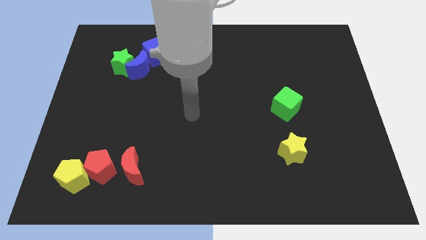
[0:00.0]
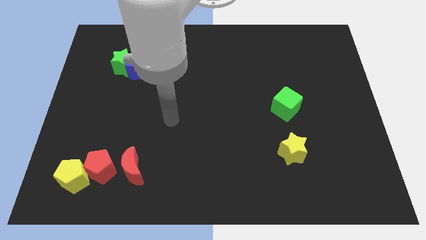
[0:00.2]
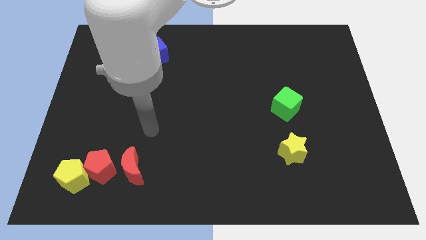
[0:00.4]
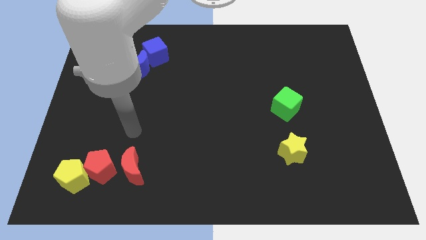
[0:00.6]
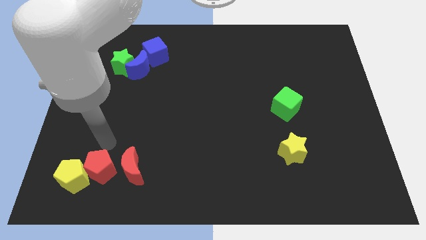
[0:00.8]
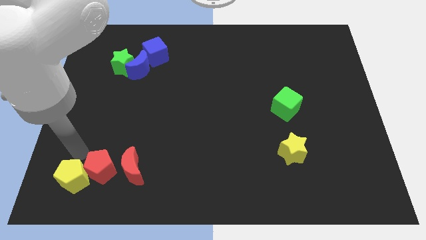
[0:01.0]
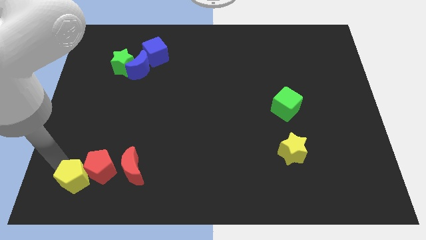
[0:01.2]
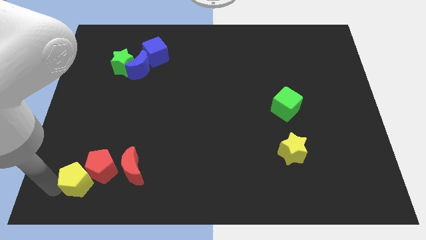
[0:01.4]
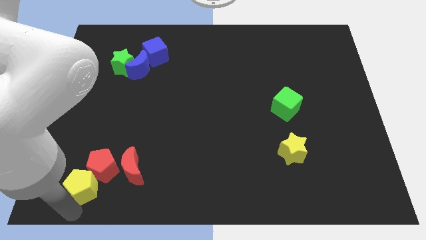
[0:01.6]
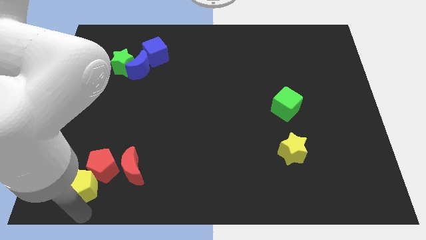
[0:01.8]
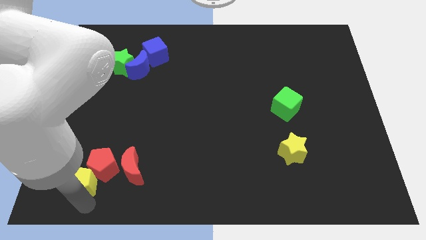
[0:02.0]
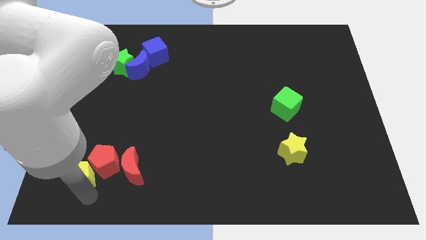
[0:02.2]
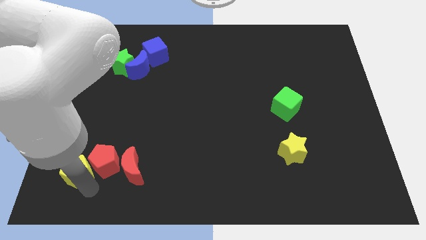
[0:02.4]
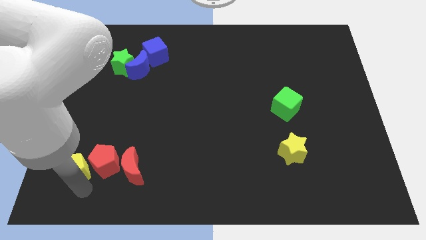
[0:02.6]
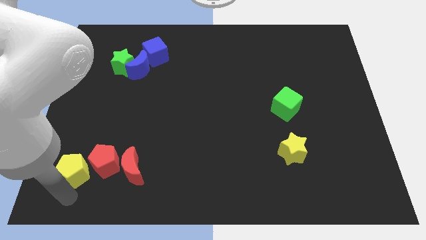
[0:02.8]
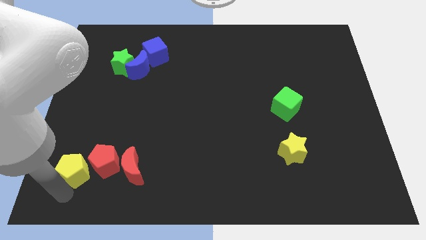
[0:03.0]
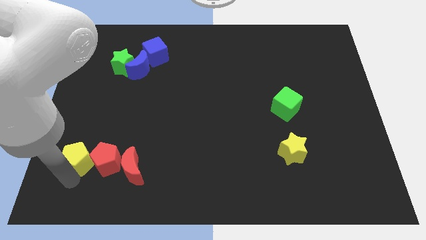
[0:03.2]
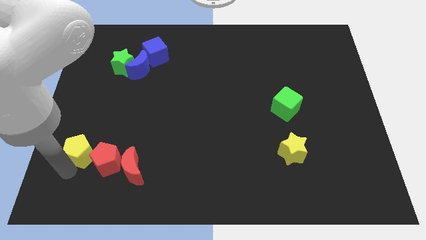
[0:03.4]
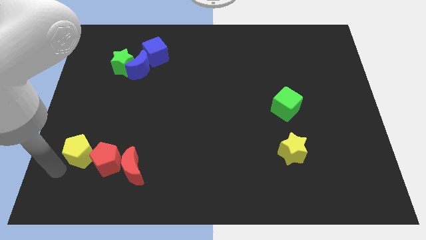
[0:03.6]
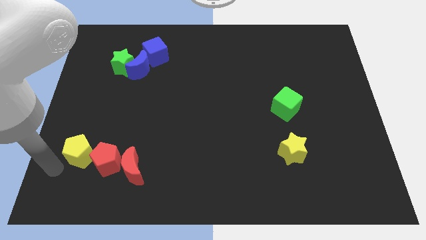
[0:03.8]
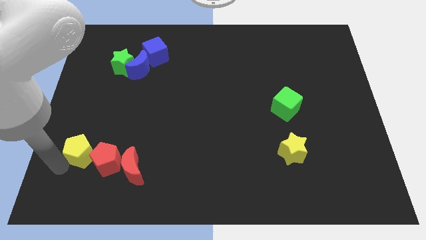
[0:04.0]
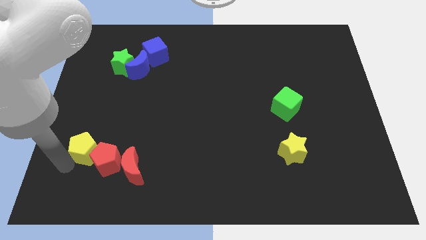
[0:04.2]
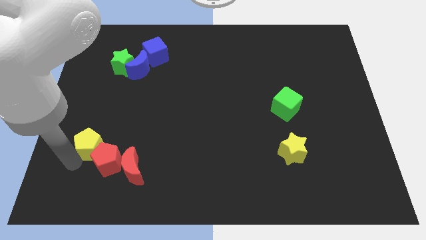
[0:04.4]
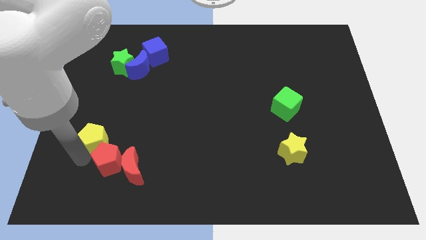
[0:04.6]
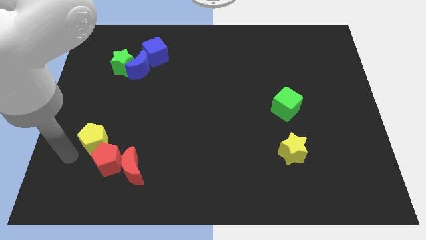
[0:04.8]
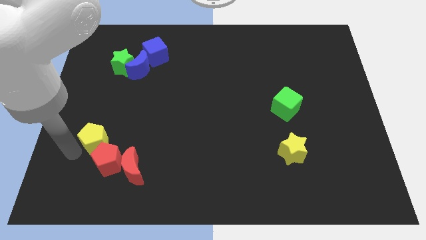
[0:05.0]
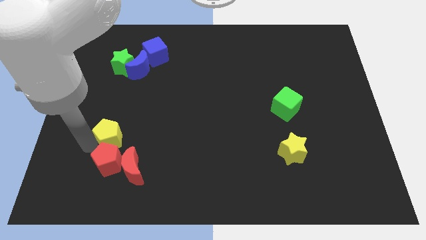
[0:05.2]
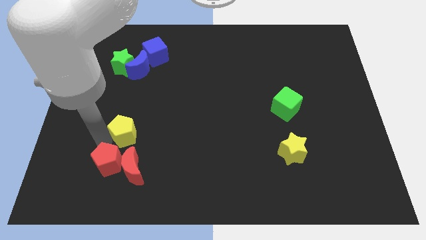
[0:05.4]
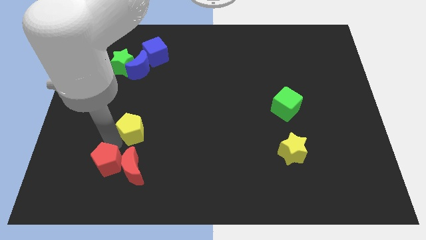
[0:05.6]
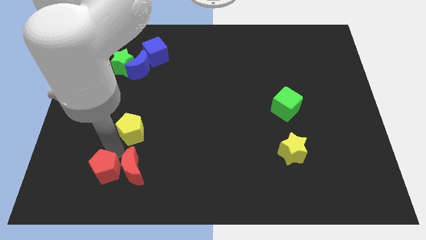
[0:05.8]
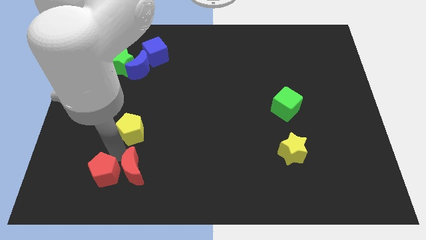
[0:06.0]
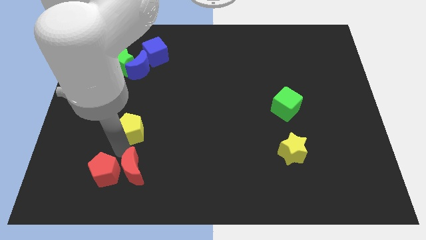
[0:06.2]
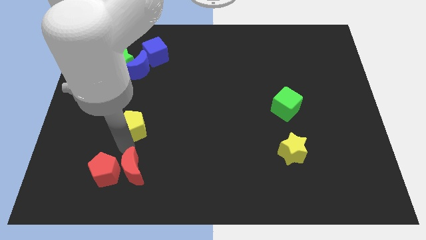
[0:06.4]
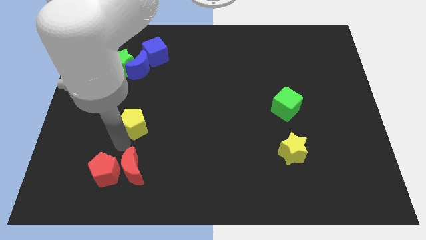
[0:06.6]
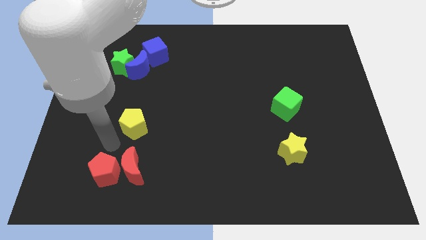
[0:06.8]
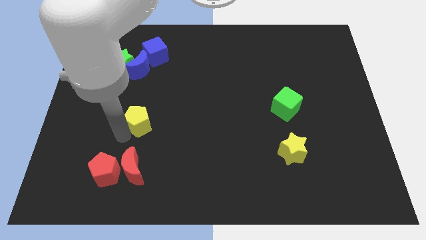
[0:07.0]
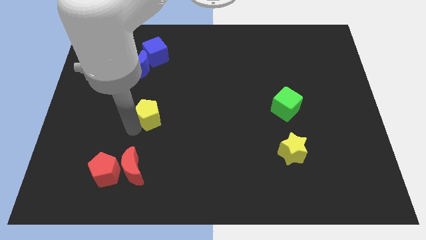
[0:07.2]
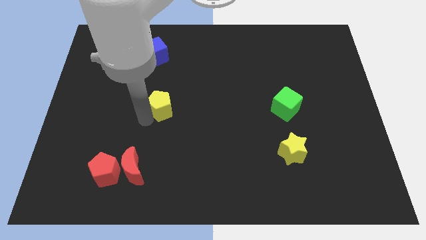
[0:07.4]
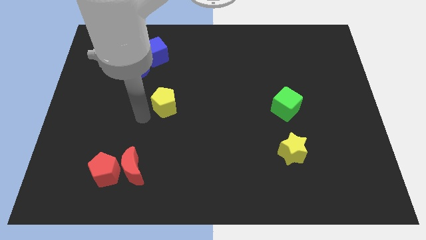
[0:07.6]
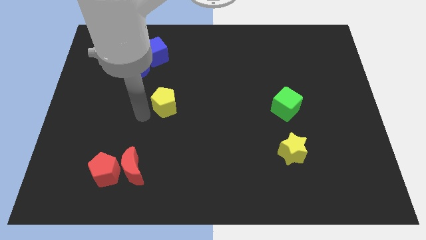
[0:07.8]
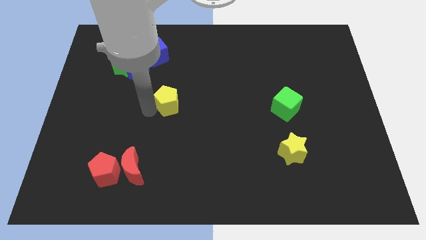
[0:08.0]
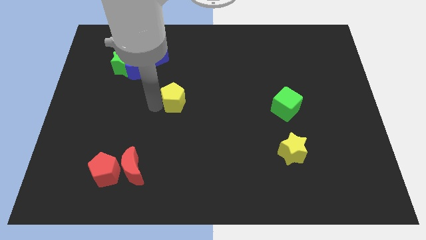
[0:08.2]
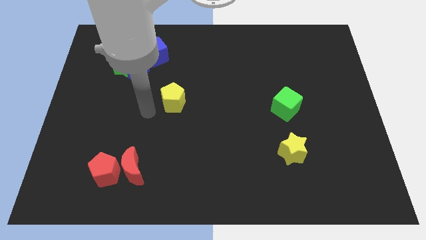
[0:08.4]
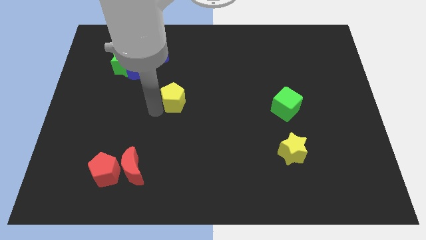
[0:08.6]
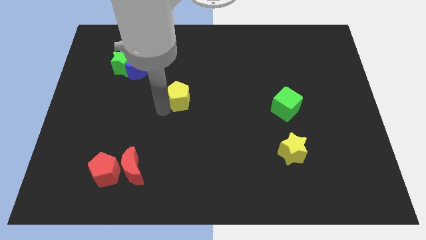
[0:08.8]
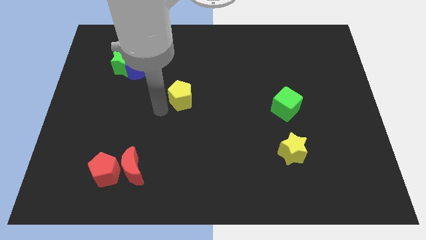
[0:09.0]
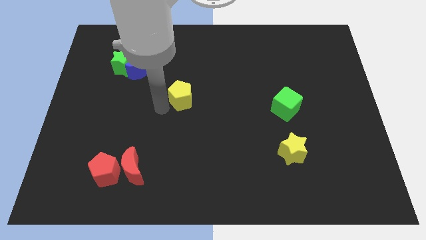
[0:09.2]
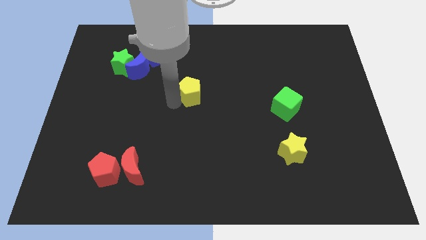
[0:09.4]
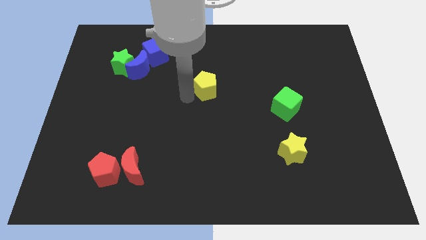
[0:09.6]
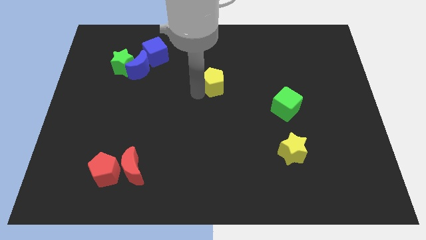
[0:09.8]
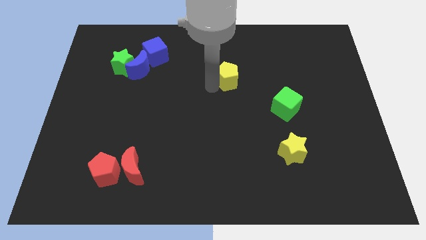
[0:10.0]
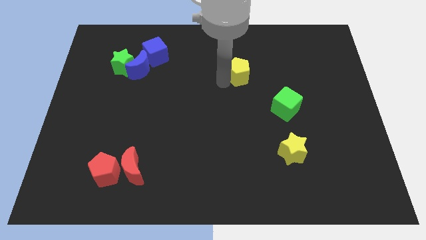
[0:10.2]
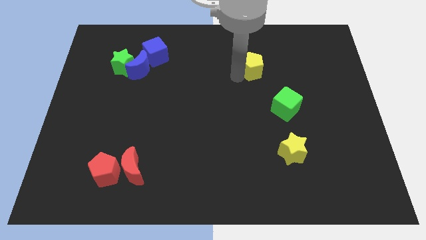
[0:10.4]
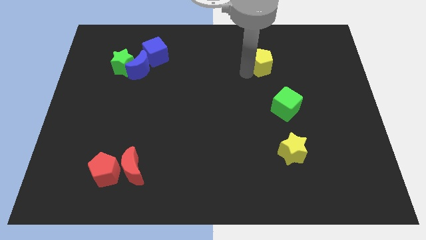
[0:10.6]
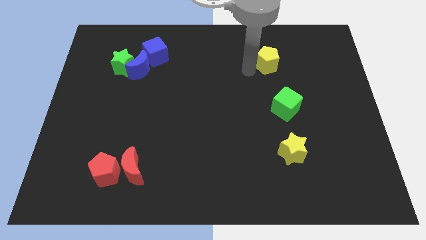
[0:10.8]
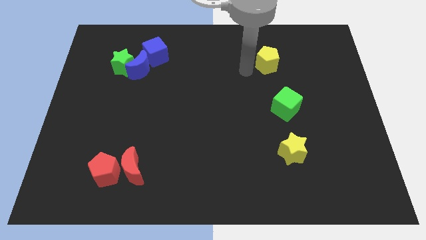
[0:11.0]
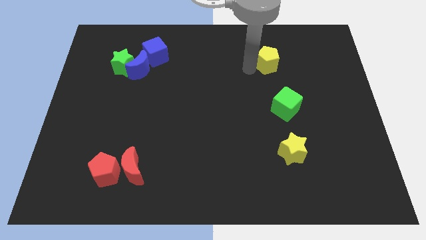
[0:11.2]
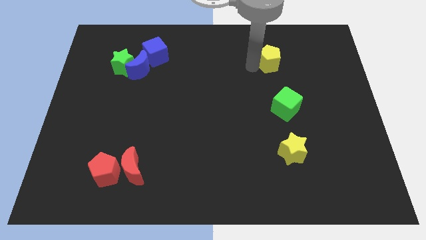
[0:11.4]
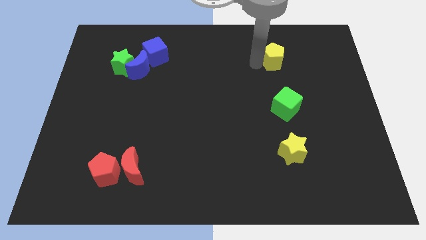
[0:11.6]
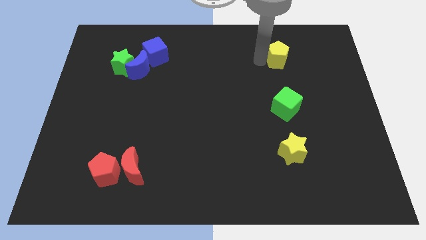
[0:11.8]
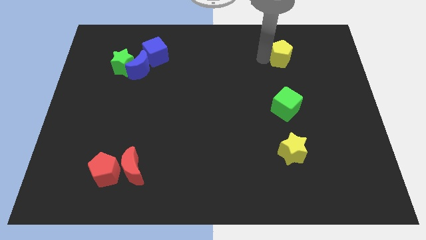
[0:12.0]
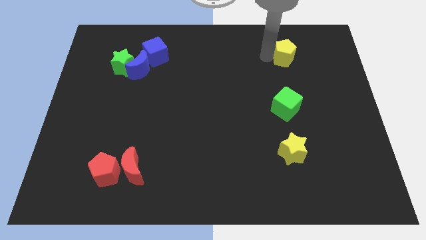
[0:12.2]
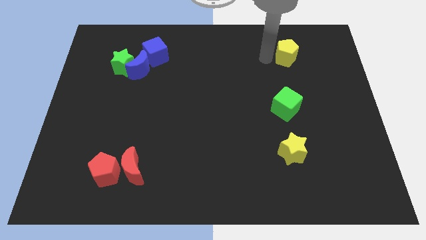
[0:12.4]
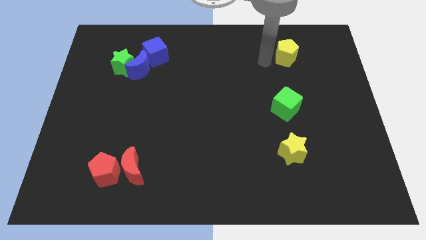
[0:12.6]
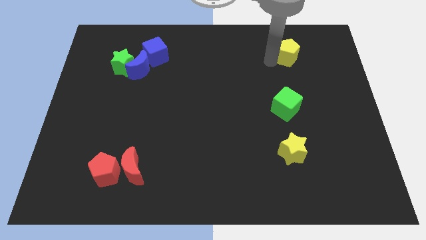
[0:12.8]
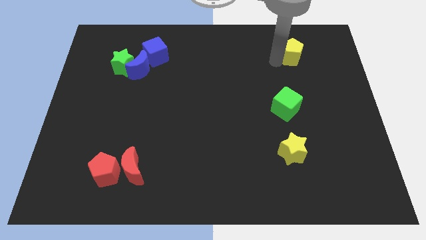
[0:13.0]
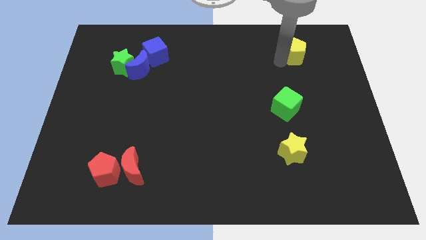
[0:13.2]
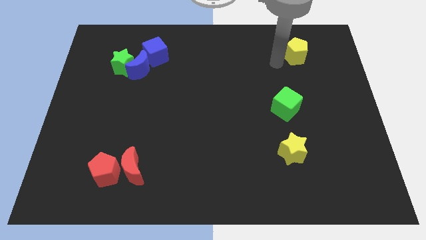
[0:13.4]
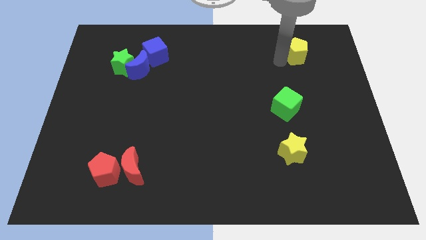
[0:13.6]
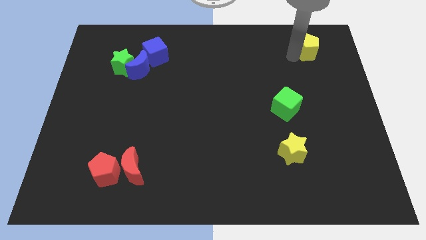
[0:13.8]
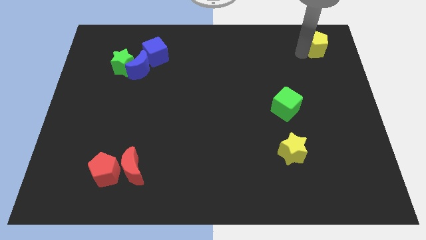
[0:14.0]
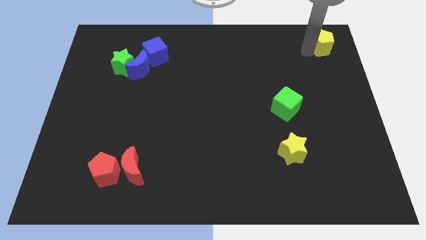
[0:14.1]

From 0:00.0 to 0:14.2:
move the yellow pentagon to the top right of the board
